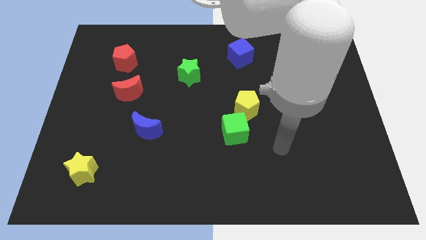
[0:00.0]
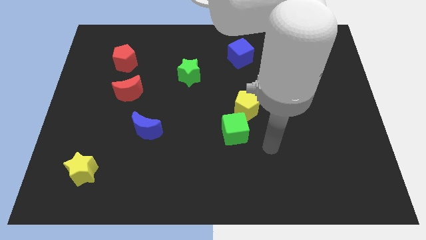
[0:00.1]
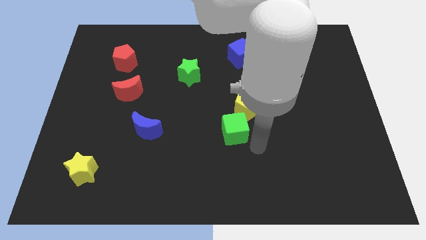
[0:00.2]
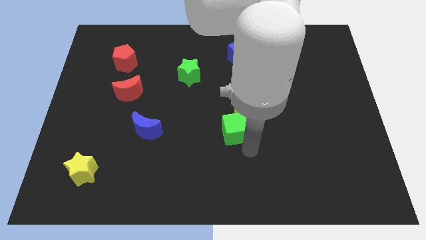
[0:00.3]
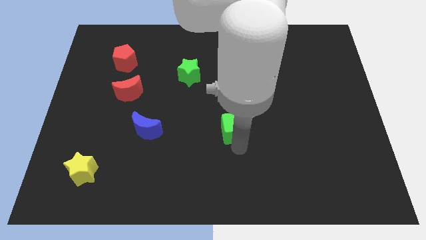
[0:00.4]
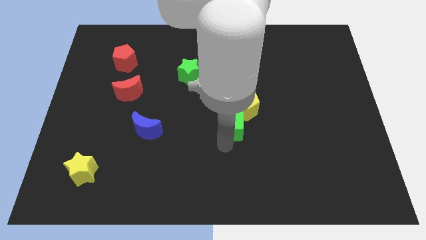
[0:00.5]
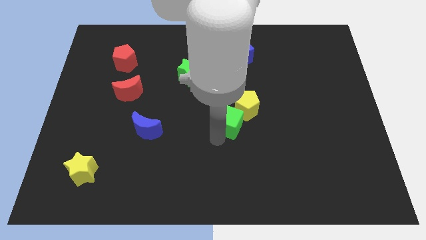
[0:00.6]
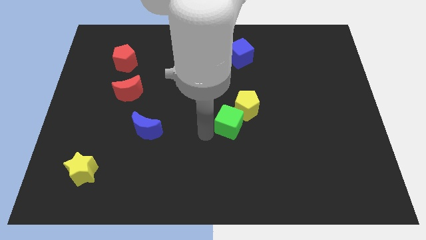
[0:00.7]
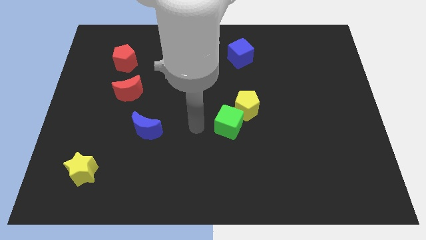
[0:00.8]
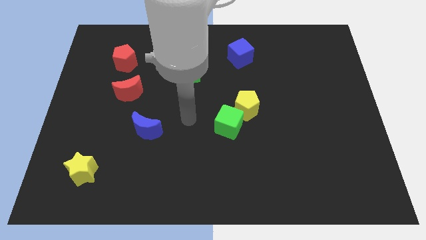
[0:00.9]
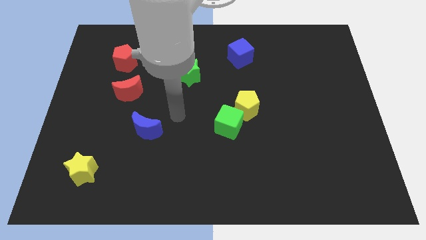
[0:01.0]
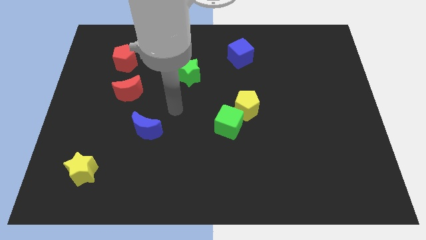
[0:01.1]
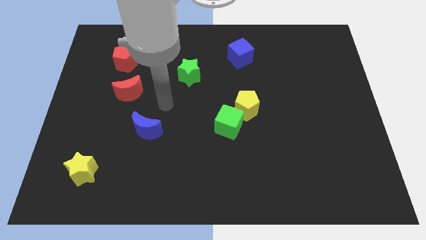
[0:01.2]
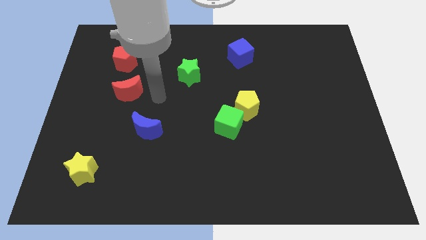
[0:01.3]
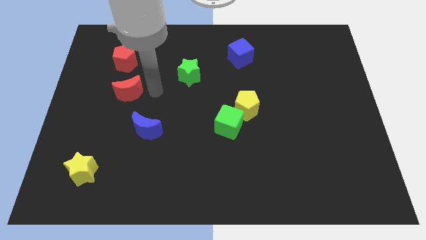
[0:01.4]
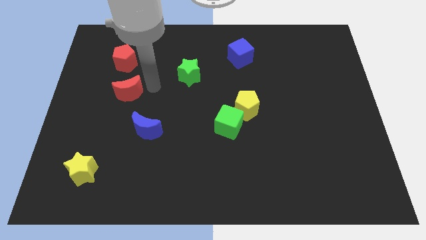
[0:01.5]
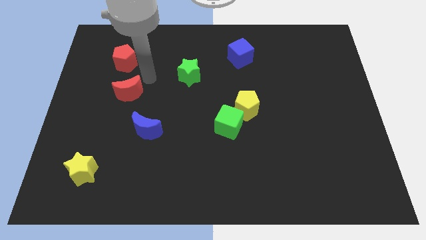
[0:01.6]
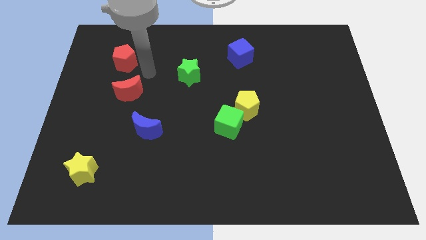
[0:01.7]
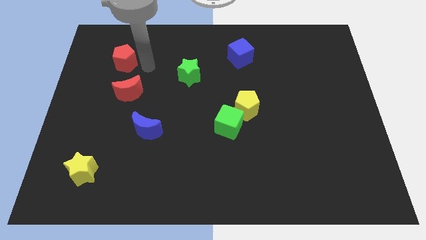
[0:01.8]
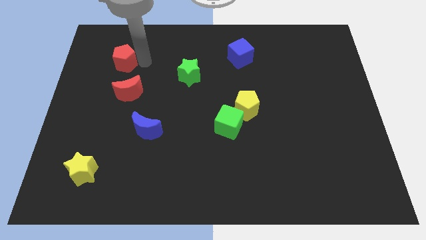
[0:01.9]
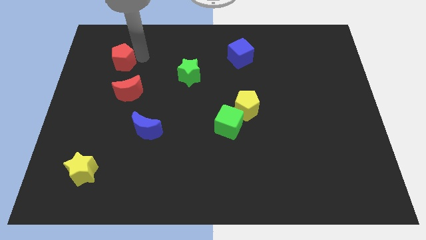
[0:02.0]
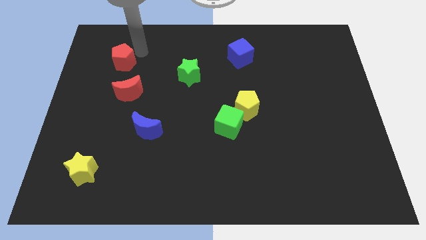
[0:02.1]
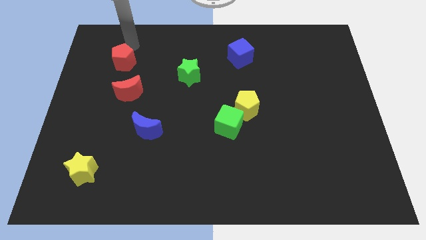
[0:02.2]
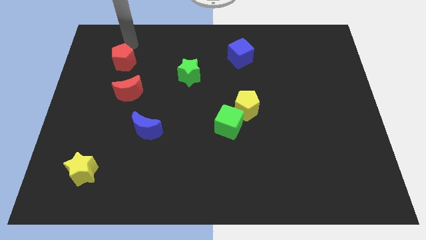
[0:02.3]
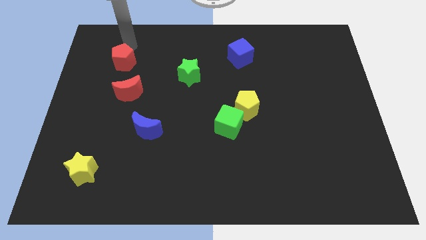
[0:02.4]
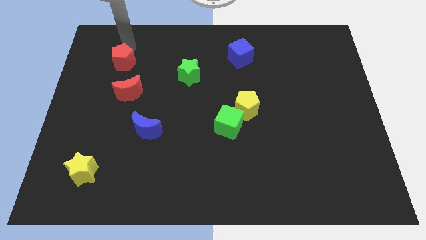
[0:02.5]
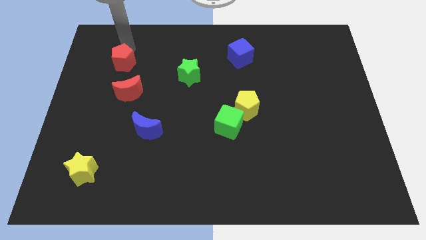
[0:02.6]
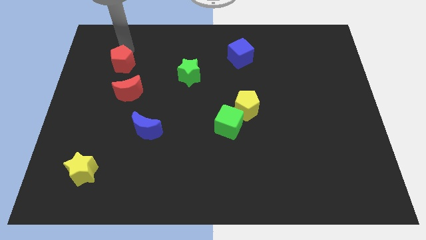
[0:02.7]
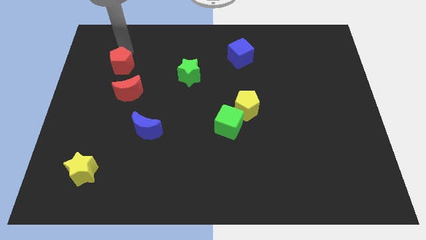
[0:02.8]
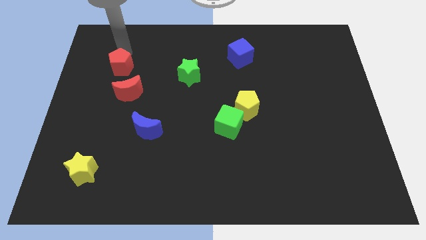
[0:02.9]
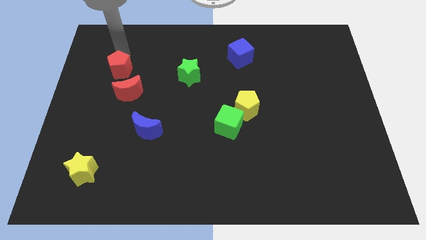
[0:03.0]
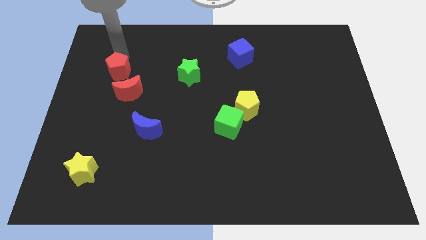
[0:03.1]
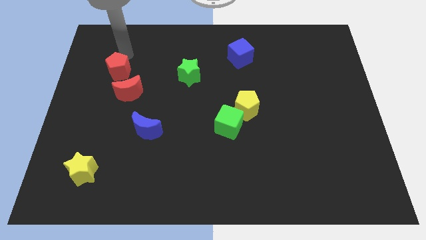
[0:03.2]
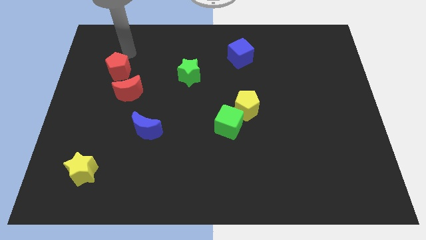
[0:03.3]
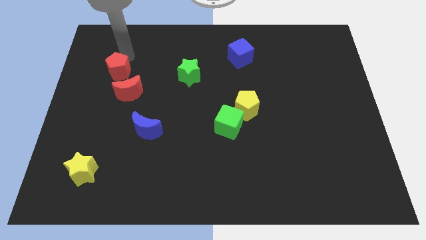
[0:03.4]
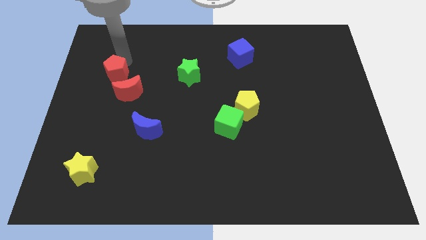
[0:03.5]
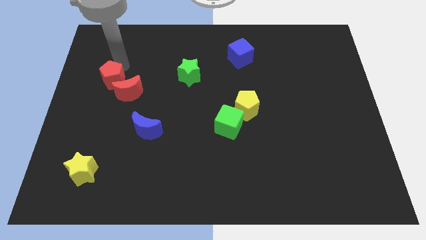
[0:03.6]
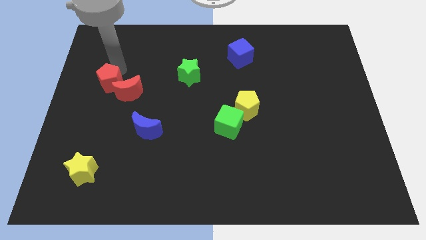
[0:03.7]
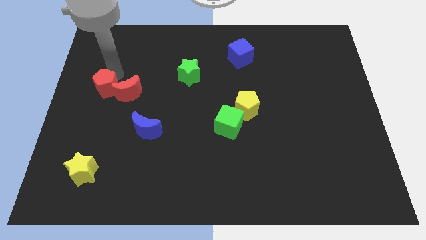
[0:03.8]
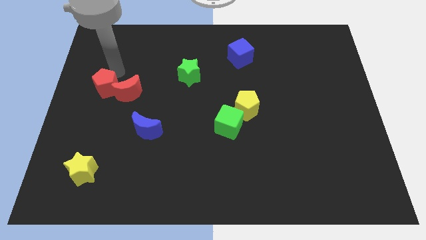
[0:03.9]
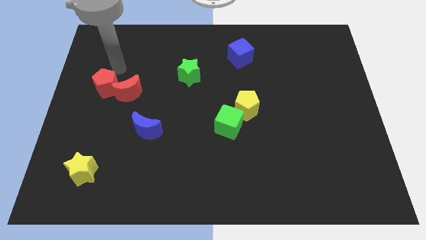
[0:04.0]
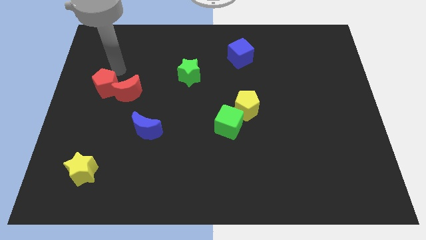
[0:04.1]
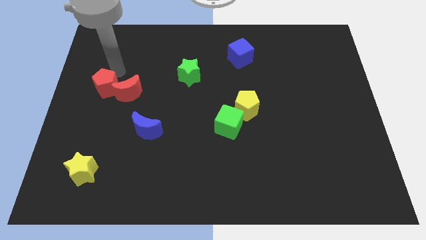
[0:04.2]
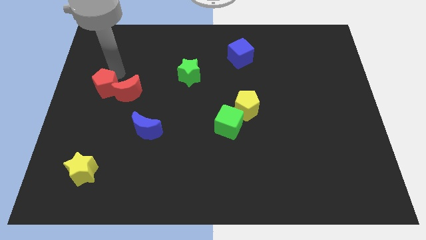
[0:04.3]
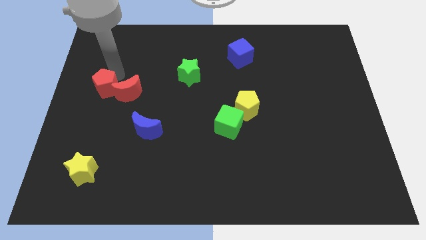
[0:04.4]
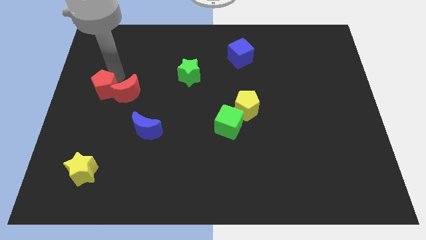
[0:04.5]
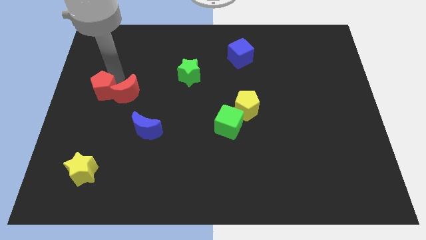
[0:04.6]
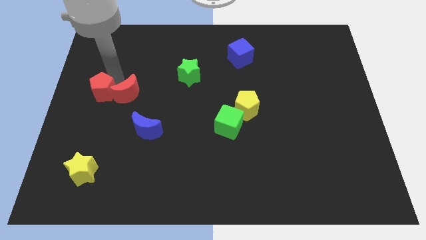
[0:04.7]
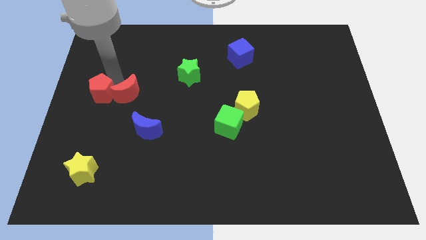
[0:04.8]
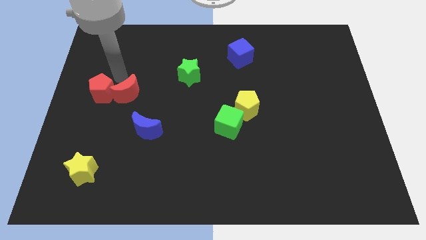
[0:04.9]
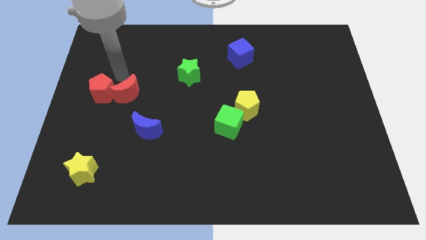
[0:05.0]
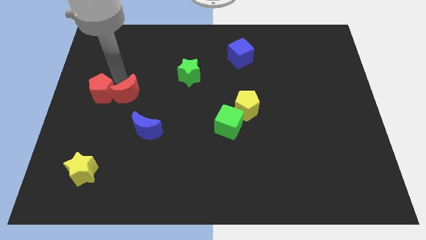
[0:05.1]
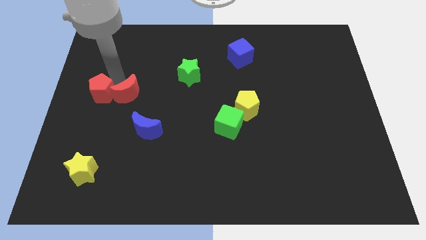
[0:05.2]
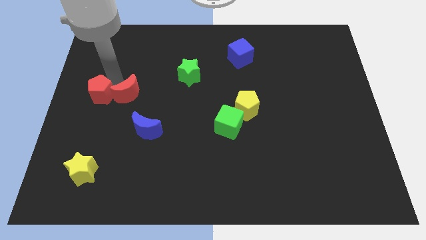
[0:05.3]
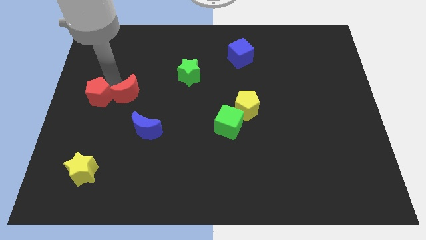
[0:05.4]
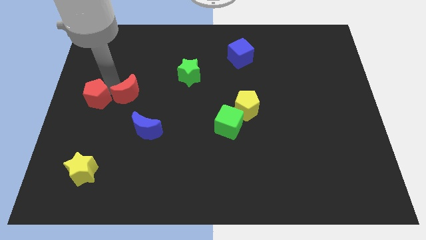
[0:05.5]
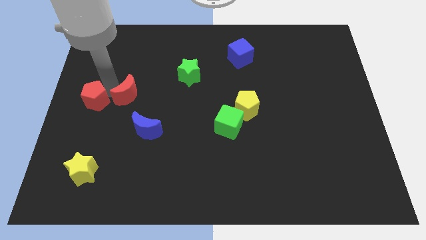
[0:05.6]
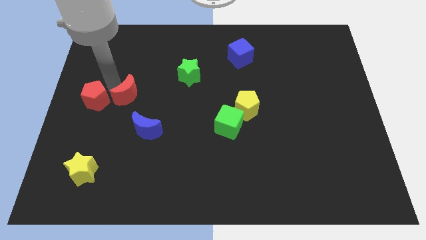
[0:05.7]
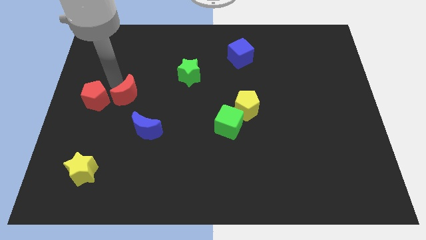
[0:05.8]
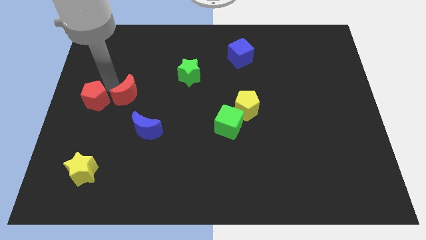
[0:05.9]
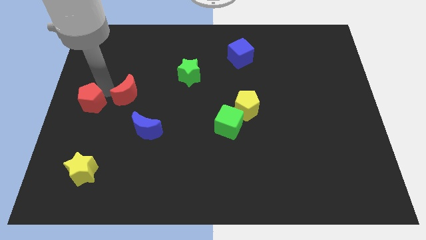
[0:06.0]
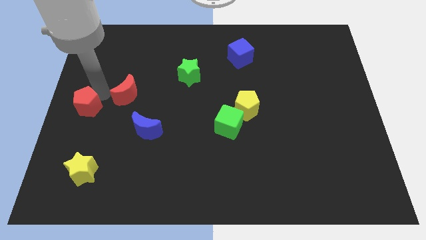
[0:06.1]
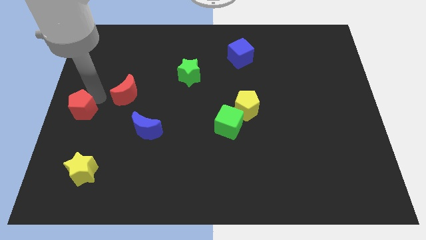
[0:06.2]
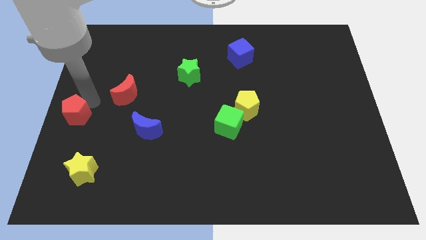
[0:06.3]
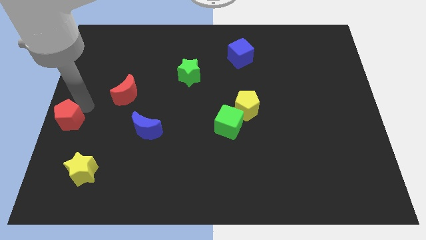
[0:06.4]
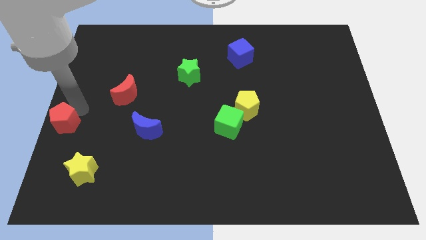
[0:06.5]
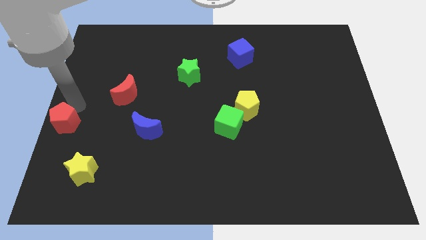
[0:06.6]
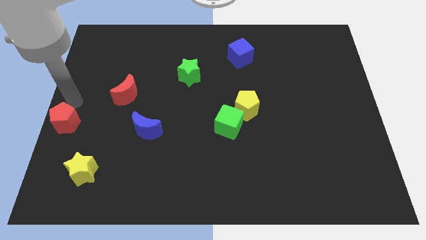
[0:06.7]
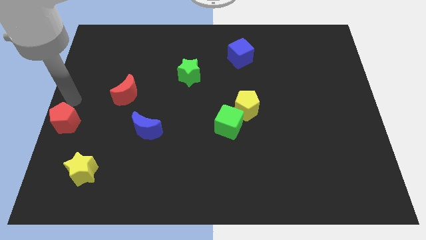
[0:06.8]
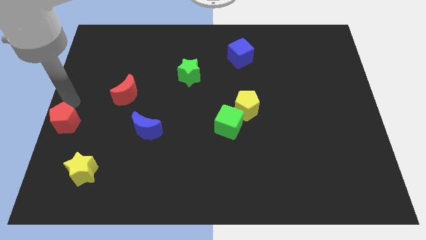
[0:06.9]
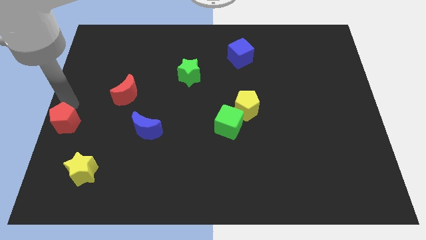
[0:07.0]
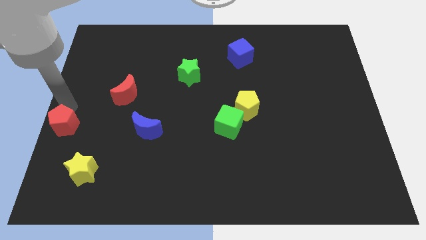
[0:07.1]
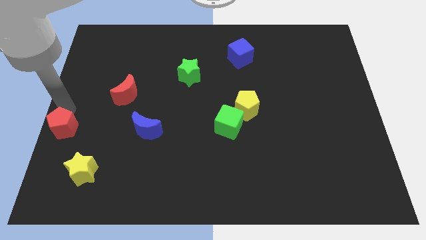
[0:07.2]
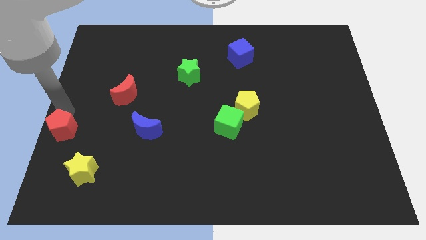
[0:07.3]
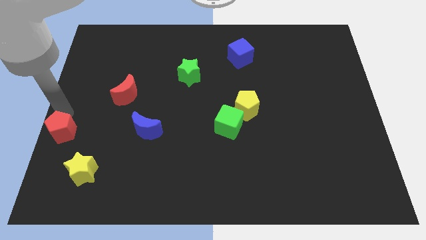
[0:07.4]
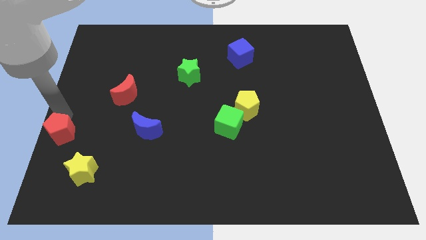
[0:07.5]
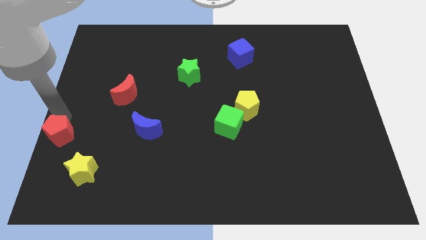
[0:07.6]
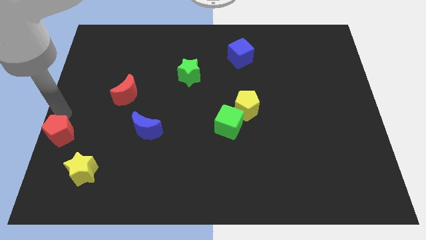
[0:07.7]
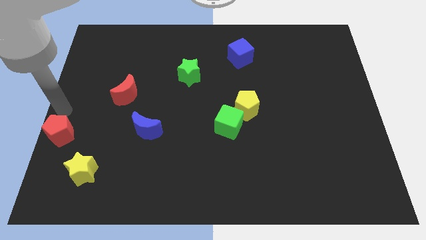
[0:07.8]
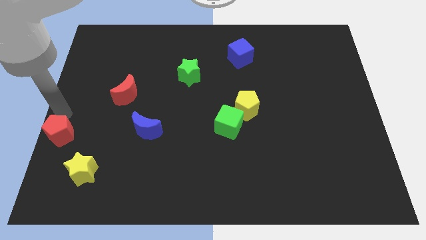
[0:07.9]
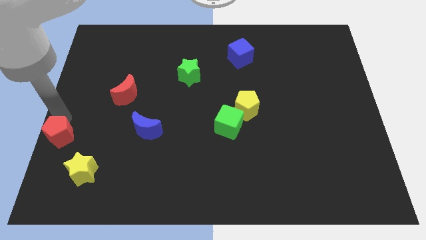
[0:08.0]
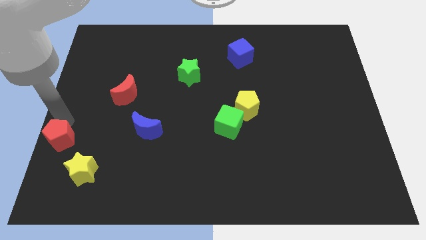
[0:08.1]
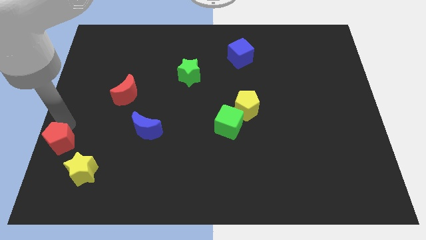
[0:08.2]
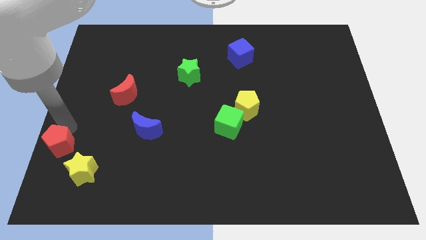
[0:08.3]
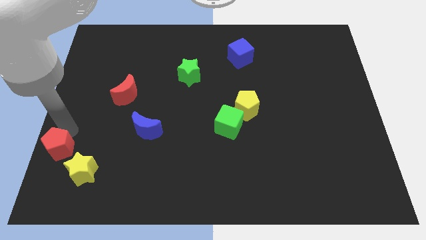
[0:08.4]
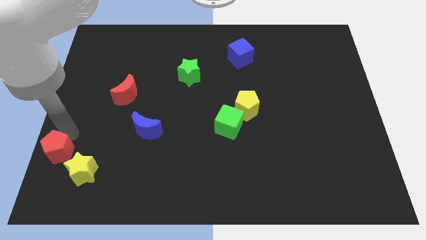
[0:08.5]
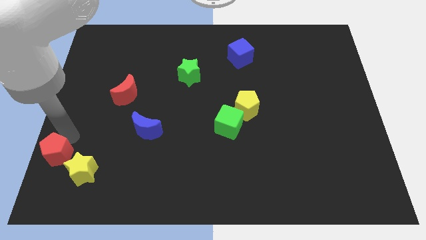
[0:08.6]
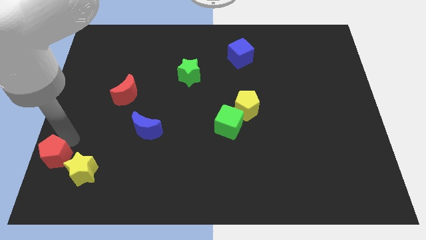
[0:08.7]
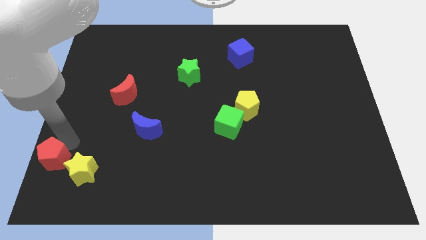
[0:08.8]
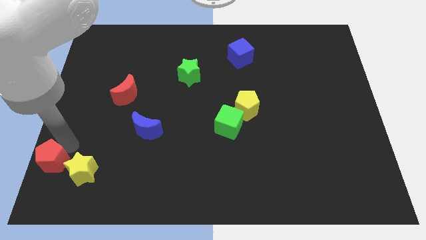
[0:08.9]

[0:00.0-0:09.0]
put the red pentagon to the bottom left
